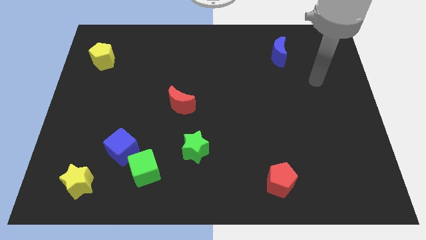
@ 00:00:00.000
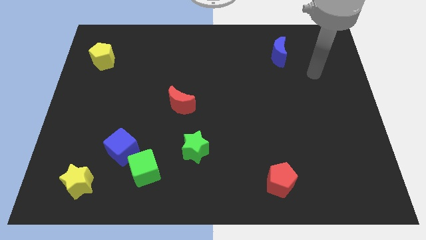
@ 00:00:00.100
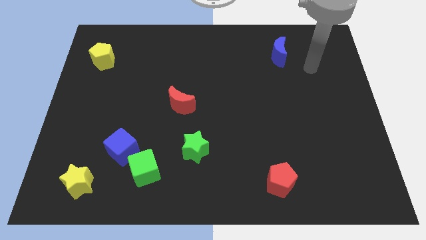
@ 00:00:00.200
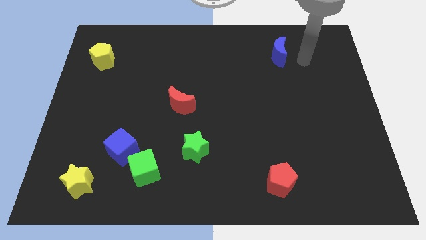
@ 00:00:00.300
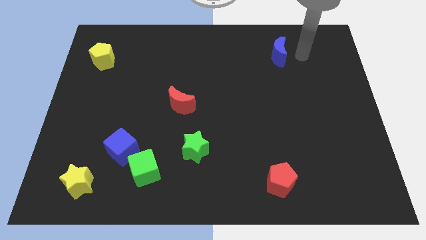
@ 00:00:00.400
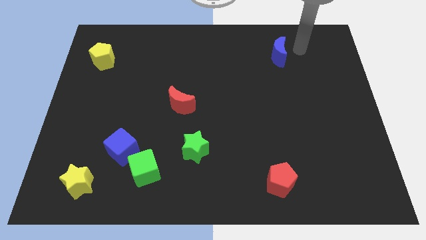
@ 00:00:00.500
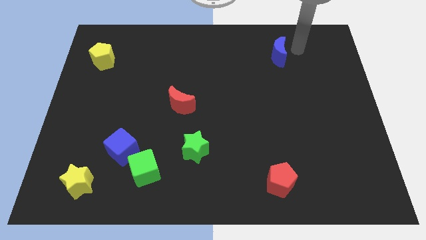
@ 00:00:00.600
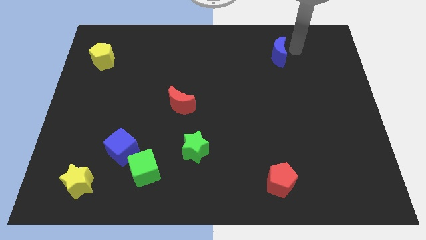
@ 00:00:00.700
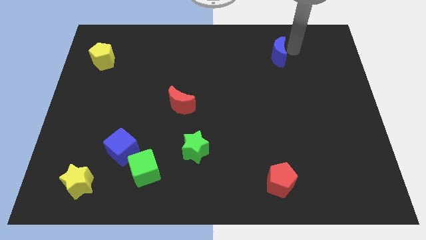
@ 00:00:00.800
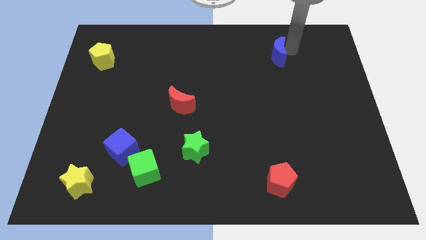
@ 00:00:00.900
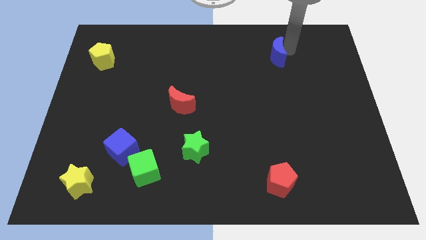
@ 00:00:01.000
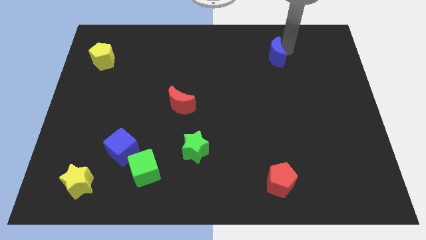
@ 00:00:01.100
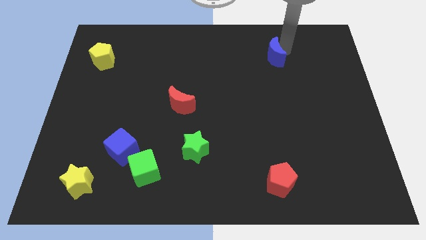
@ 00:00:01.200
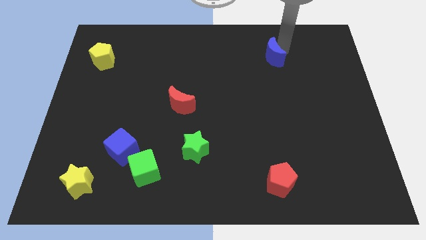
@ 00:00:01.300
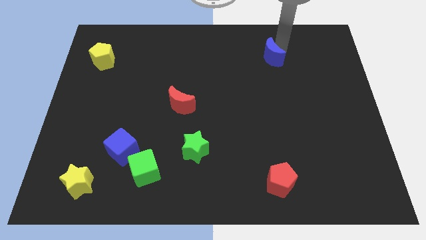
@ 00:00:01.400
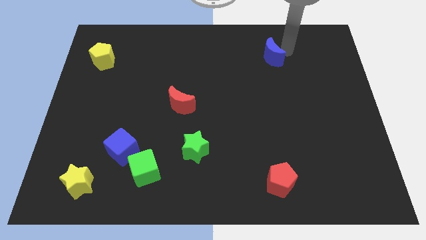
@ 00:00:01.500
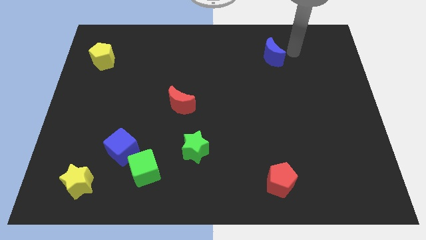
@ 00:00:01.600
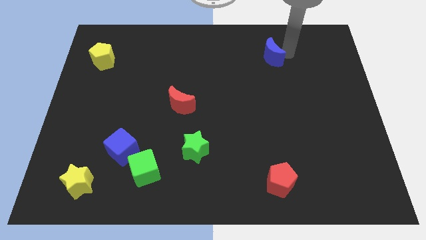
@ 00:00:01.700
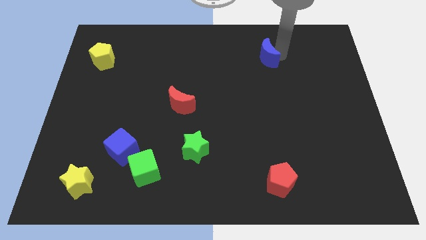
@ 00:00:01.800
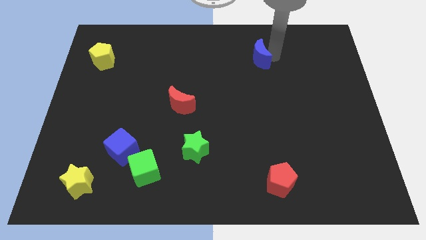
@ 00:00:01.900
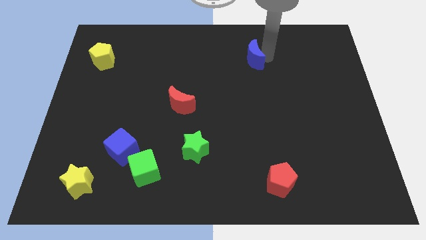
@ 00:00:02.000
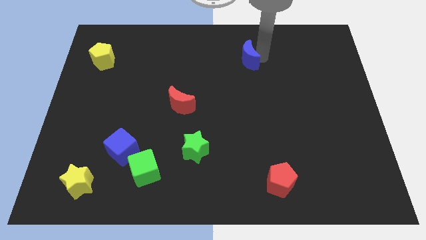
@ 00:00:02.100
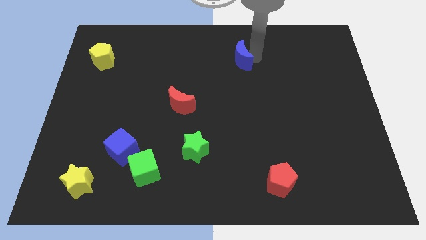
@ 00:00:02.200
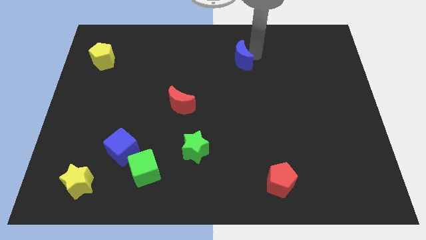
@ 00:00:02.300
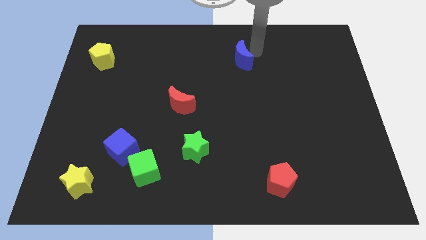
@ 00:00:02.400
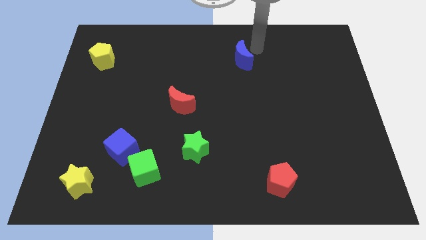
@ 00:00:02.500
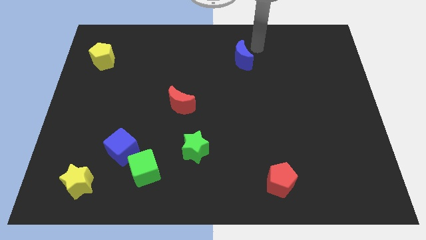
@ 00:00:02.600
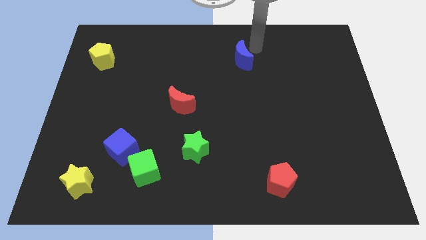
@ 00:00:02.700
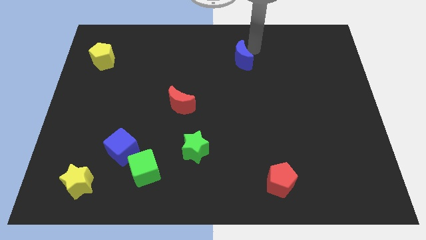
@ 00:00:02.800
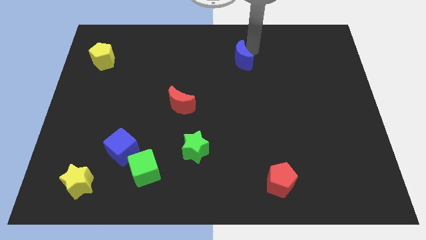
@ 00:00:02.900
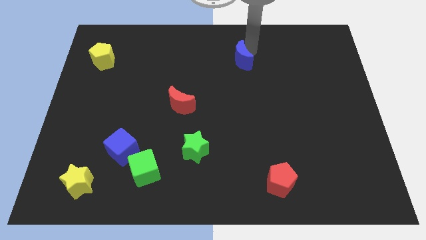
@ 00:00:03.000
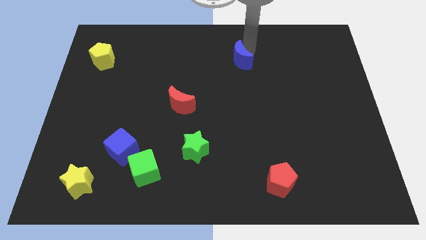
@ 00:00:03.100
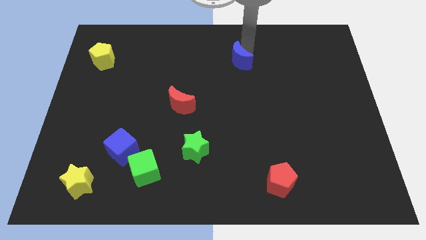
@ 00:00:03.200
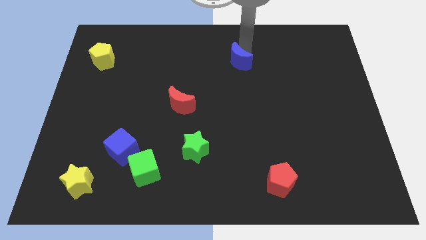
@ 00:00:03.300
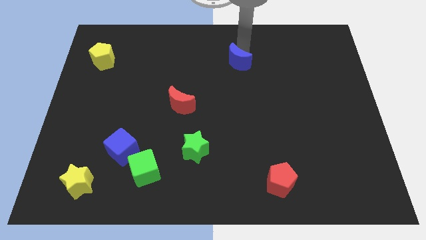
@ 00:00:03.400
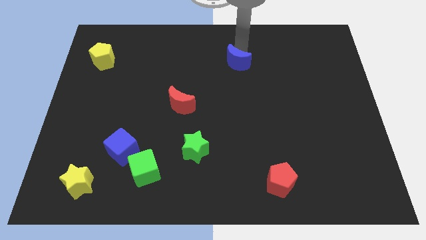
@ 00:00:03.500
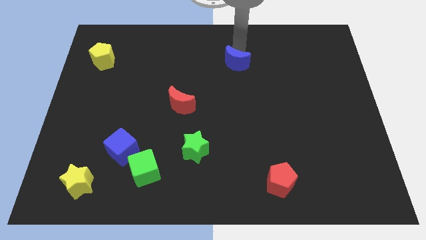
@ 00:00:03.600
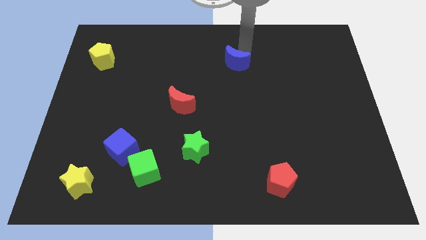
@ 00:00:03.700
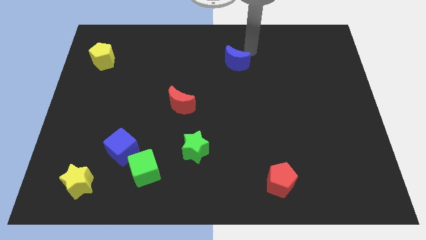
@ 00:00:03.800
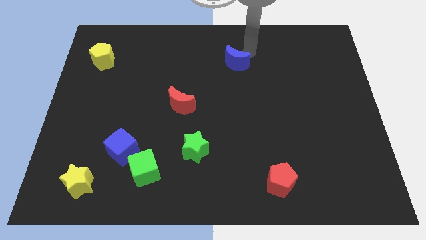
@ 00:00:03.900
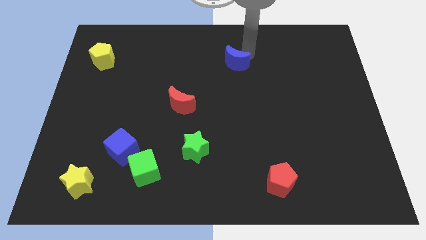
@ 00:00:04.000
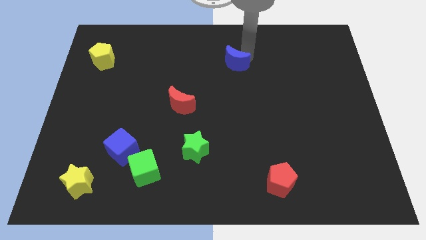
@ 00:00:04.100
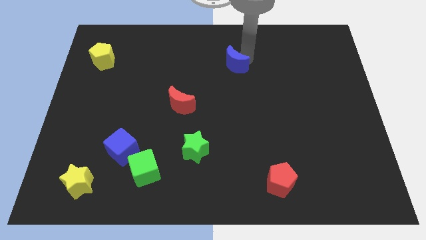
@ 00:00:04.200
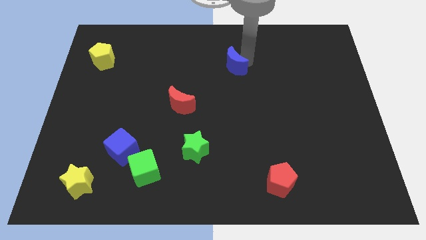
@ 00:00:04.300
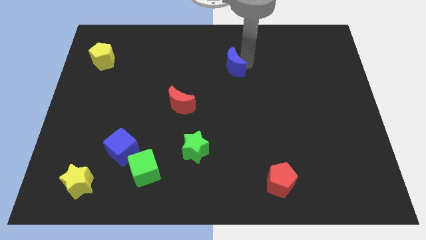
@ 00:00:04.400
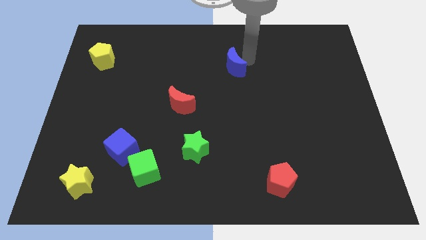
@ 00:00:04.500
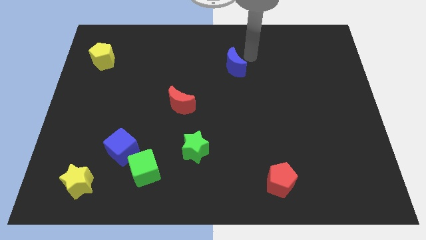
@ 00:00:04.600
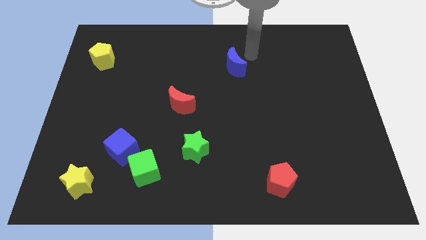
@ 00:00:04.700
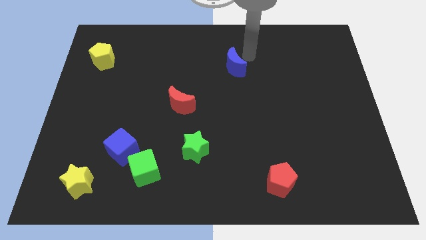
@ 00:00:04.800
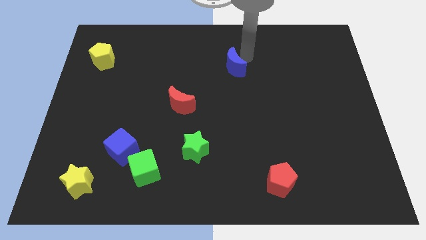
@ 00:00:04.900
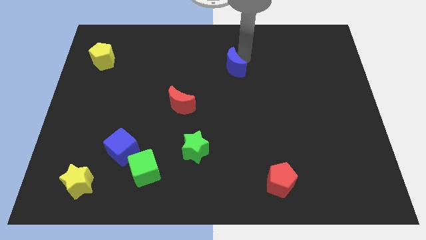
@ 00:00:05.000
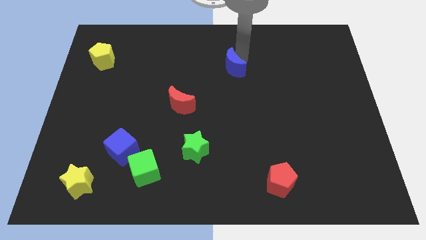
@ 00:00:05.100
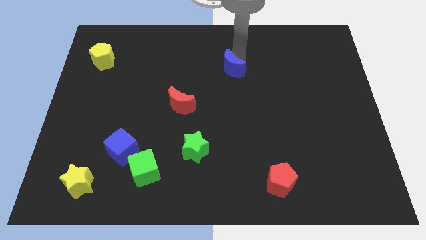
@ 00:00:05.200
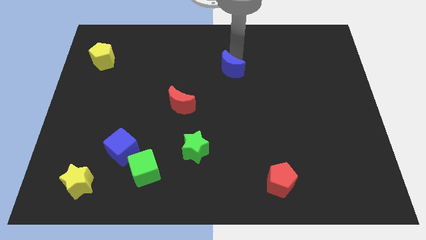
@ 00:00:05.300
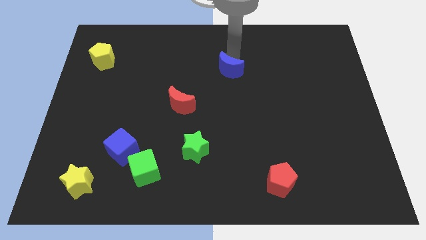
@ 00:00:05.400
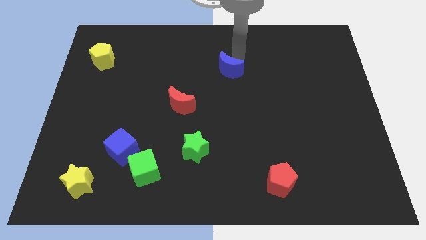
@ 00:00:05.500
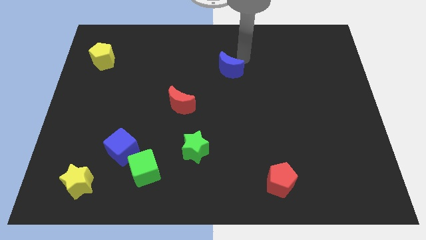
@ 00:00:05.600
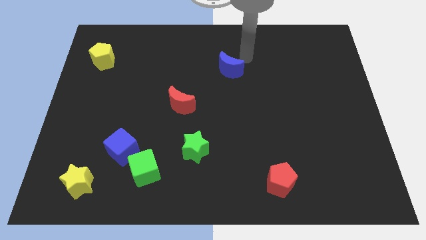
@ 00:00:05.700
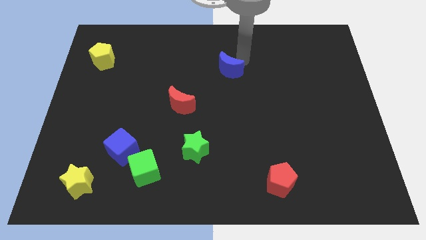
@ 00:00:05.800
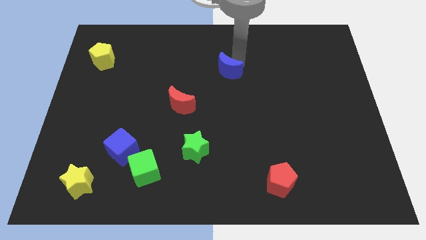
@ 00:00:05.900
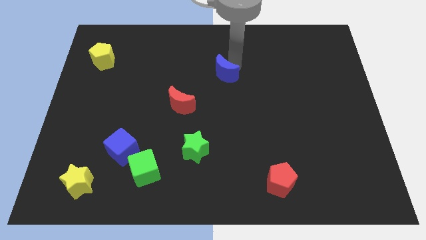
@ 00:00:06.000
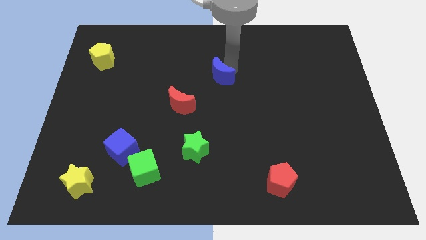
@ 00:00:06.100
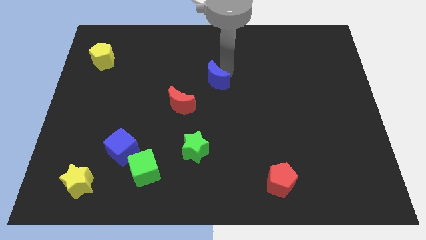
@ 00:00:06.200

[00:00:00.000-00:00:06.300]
move the blue moon diagonally up and to the right of the red moon

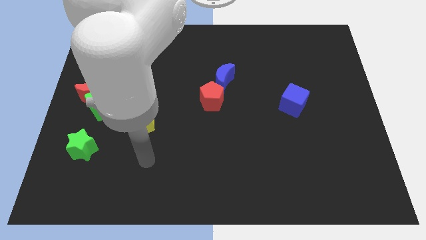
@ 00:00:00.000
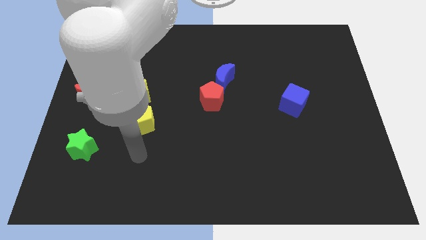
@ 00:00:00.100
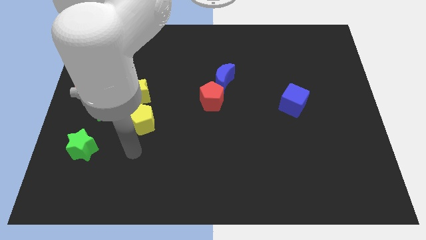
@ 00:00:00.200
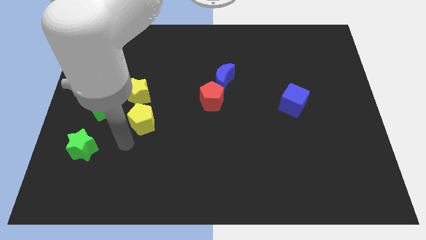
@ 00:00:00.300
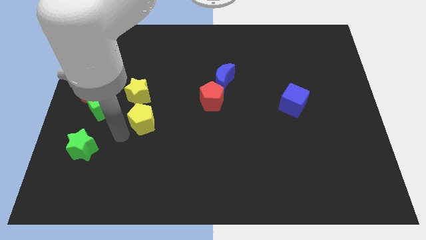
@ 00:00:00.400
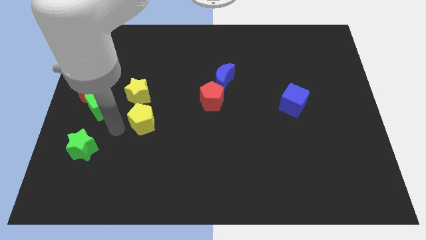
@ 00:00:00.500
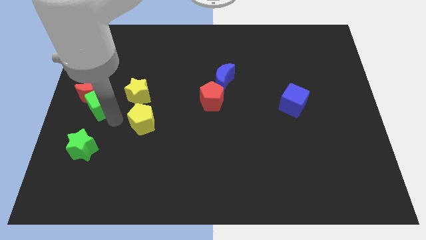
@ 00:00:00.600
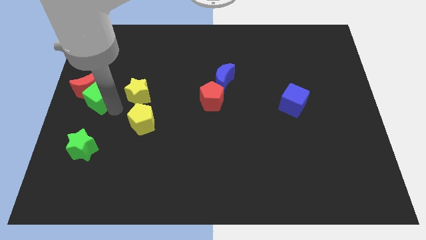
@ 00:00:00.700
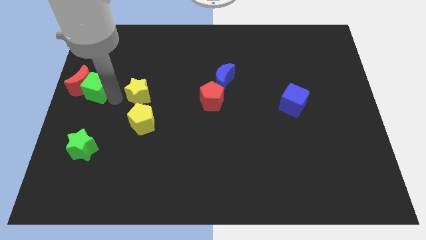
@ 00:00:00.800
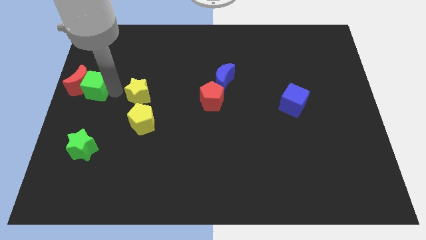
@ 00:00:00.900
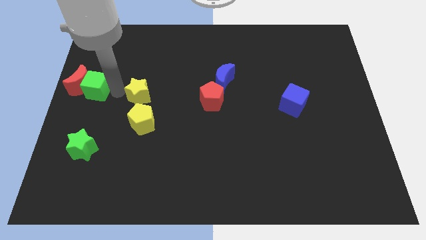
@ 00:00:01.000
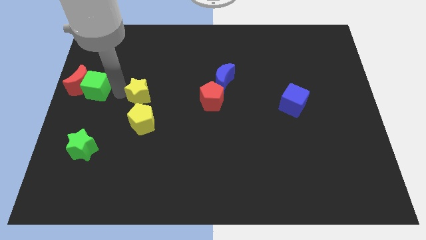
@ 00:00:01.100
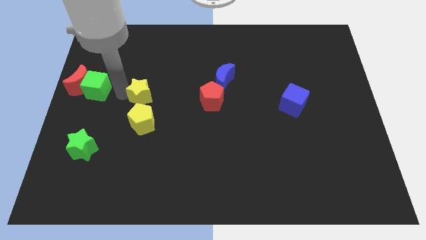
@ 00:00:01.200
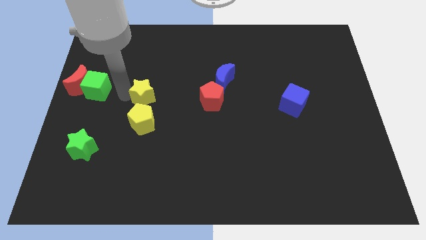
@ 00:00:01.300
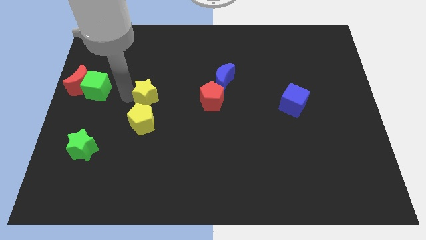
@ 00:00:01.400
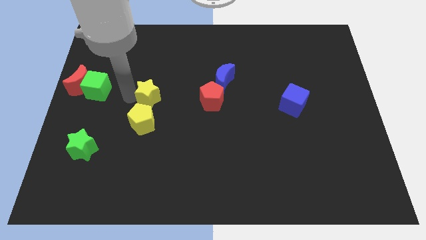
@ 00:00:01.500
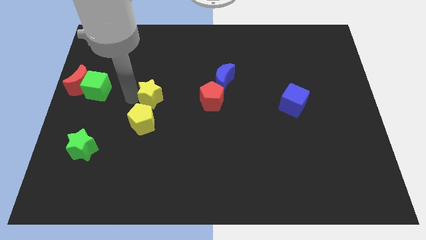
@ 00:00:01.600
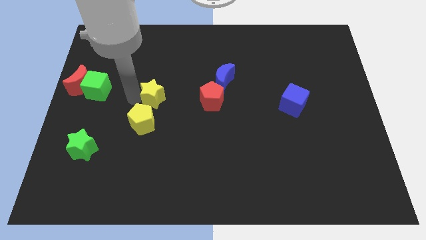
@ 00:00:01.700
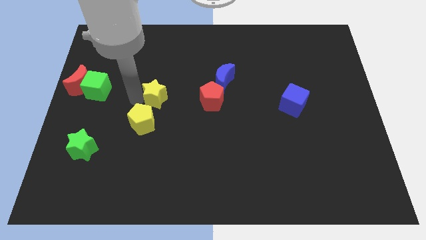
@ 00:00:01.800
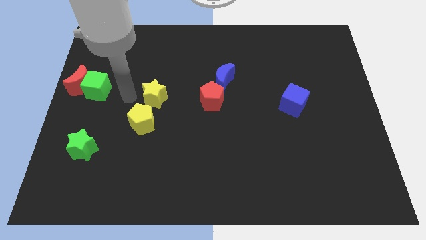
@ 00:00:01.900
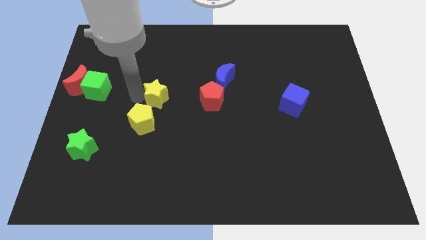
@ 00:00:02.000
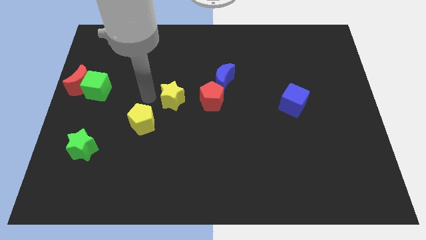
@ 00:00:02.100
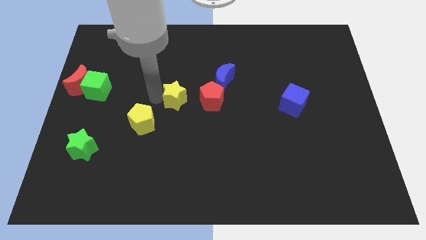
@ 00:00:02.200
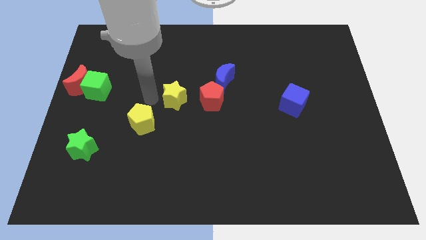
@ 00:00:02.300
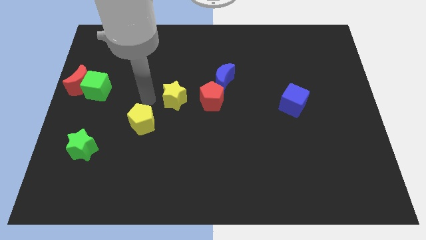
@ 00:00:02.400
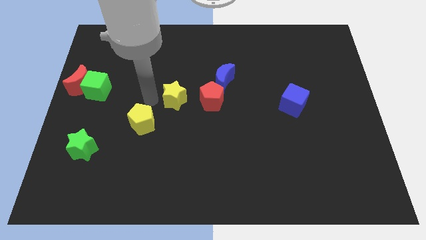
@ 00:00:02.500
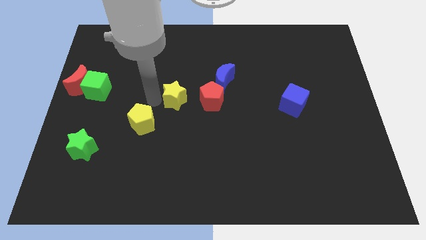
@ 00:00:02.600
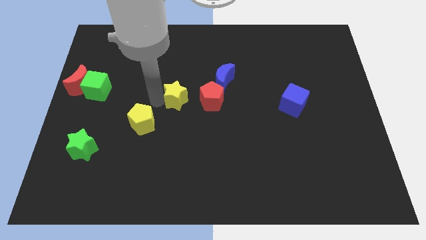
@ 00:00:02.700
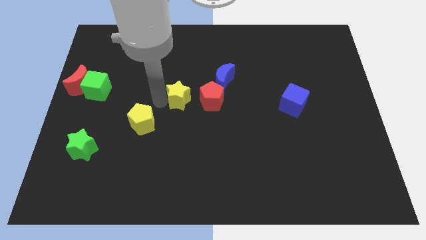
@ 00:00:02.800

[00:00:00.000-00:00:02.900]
put the yellow star to the bottom left side of the blue moon
